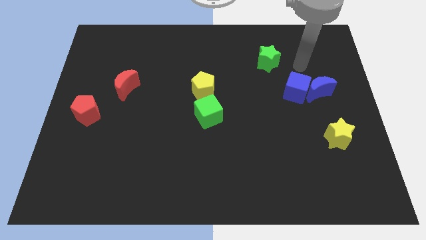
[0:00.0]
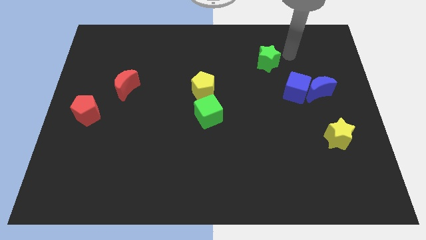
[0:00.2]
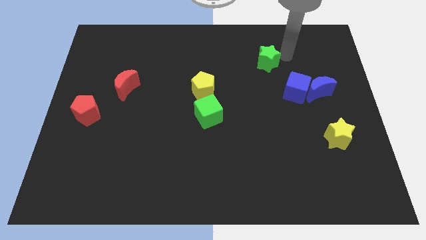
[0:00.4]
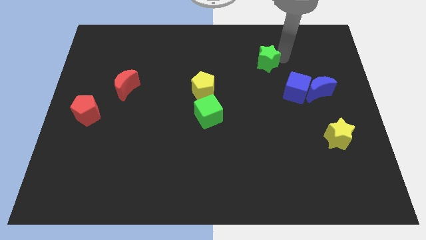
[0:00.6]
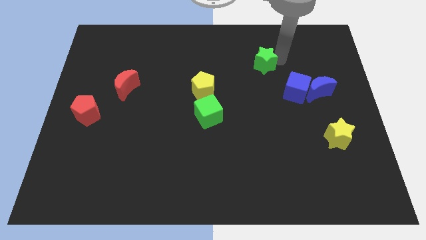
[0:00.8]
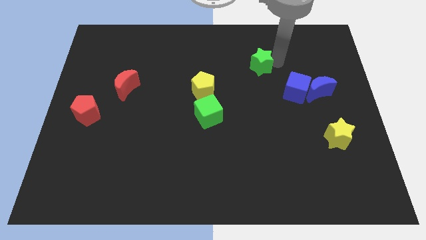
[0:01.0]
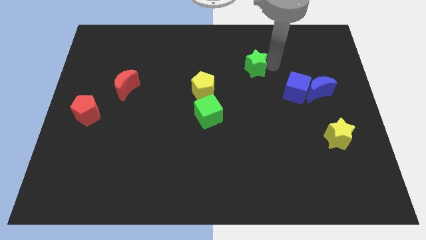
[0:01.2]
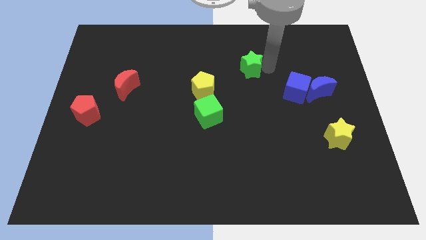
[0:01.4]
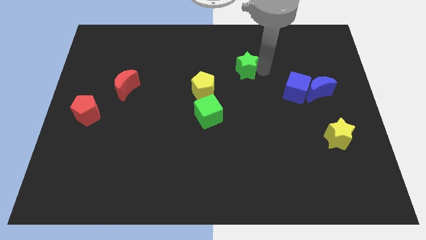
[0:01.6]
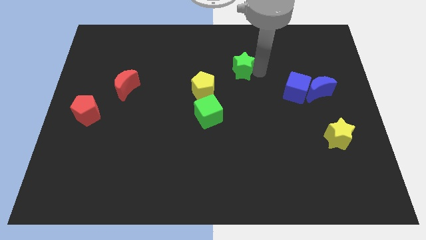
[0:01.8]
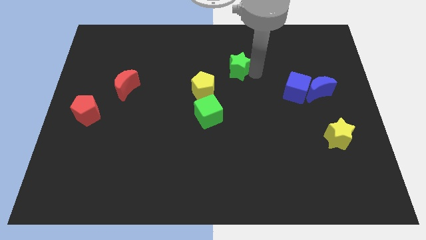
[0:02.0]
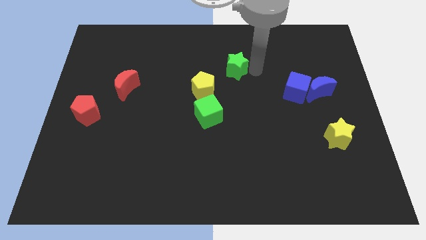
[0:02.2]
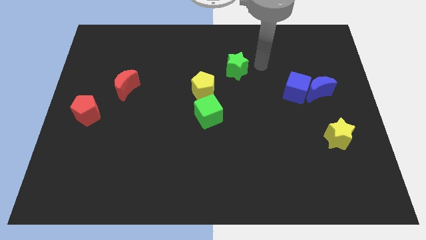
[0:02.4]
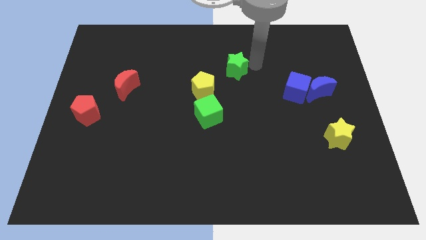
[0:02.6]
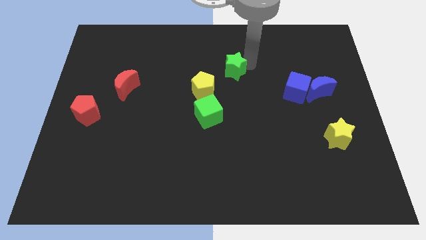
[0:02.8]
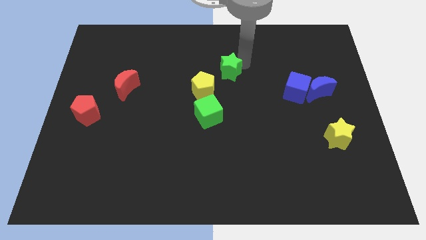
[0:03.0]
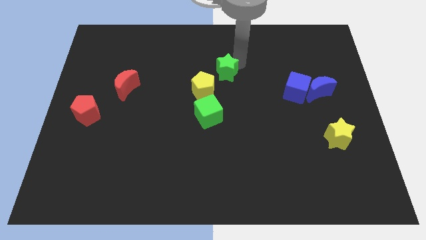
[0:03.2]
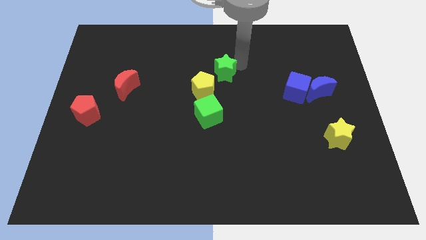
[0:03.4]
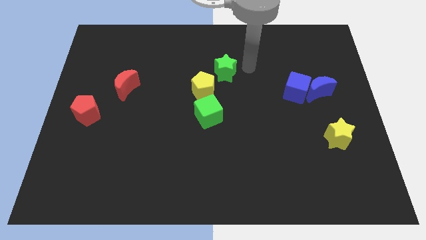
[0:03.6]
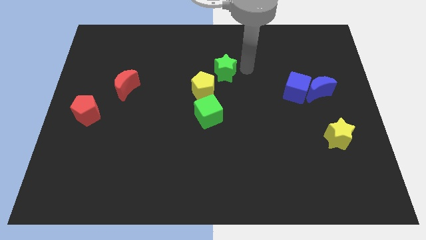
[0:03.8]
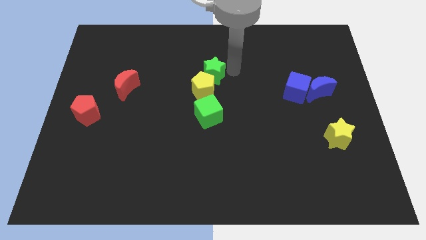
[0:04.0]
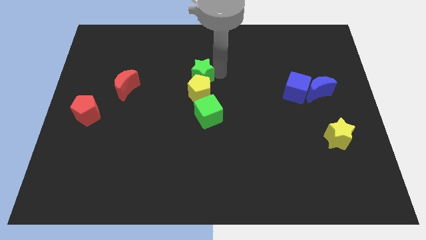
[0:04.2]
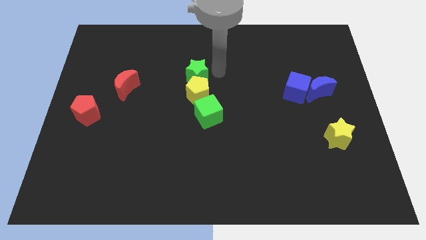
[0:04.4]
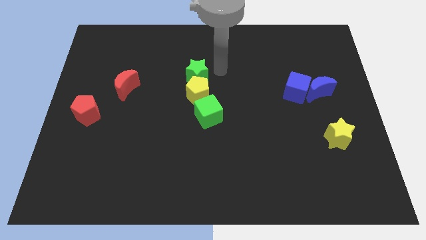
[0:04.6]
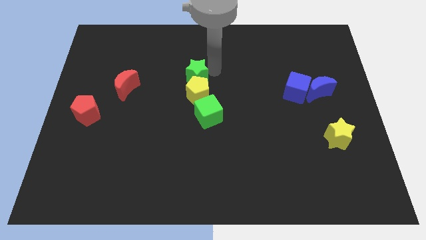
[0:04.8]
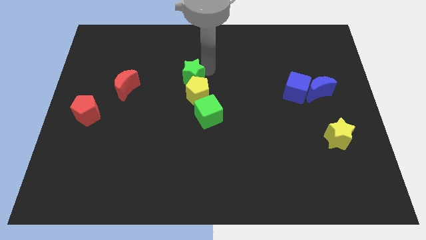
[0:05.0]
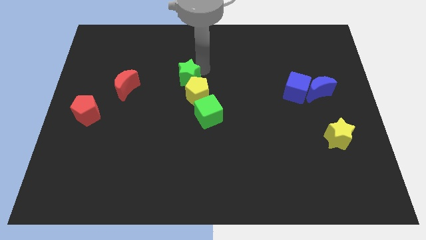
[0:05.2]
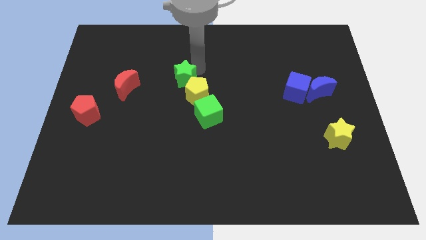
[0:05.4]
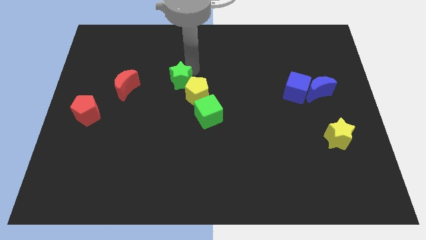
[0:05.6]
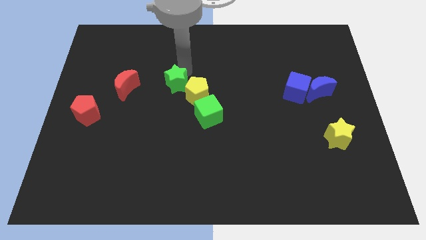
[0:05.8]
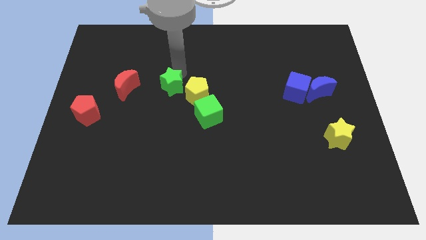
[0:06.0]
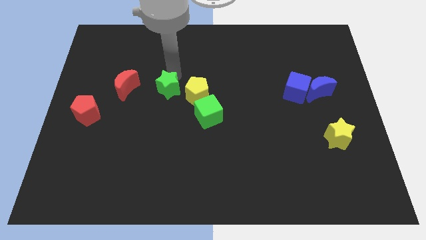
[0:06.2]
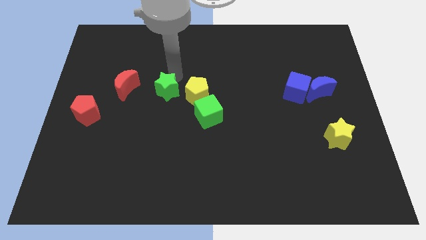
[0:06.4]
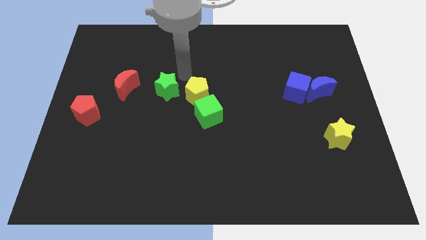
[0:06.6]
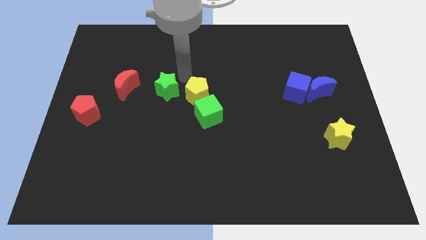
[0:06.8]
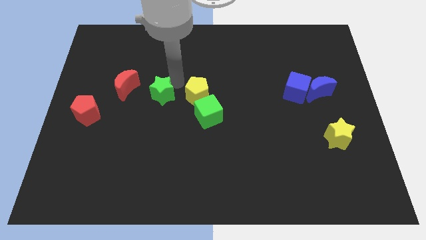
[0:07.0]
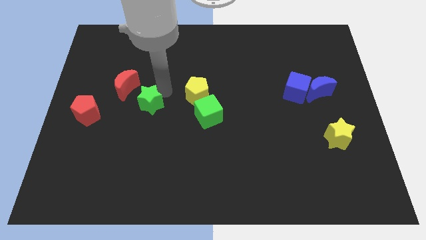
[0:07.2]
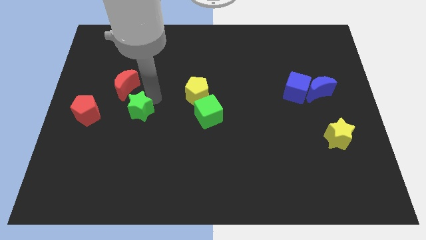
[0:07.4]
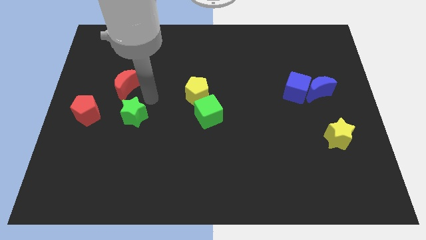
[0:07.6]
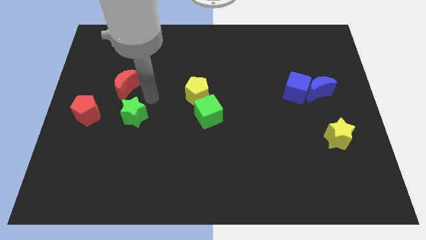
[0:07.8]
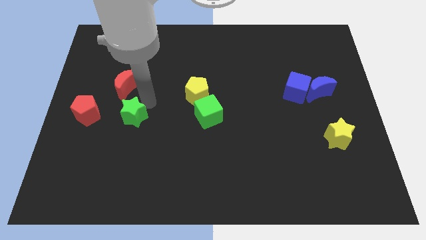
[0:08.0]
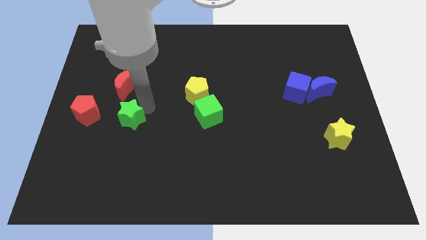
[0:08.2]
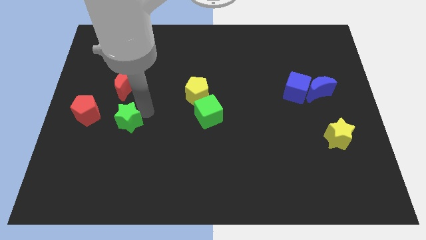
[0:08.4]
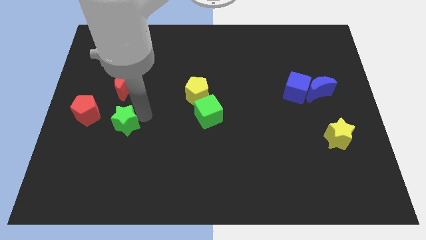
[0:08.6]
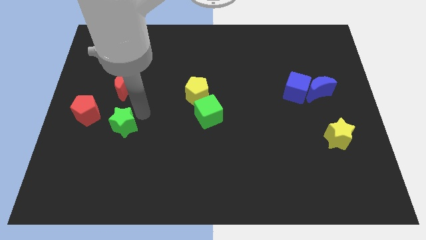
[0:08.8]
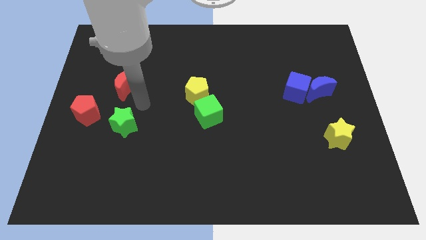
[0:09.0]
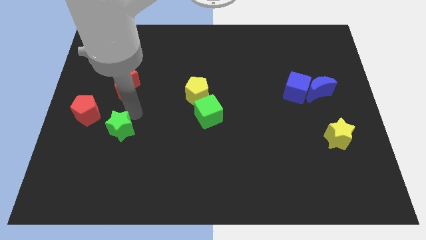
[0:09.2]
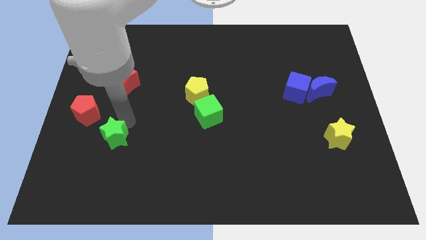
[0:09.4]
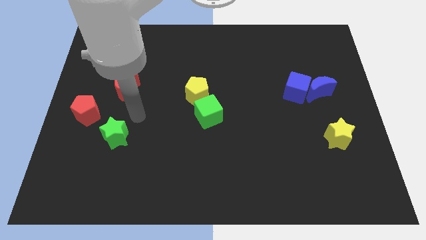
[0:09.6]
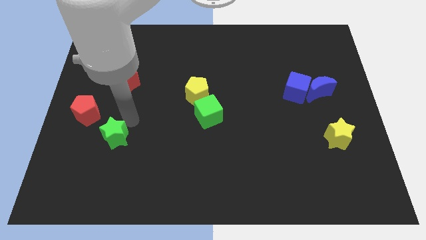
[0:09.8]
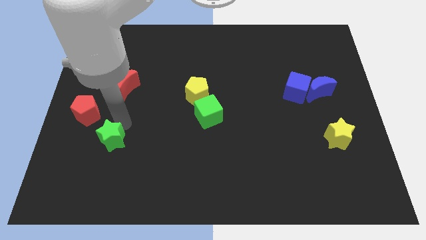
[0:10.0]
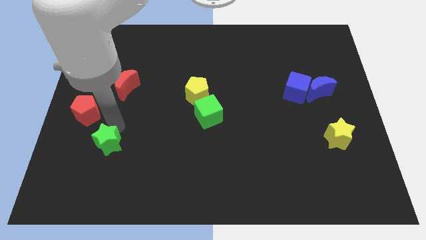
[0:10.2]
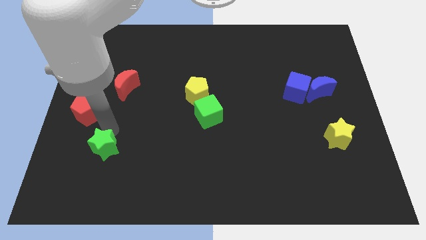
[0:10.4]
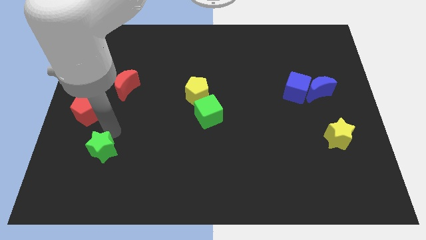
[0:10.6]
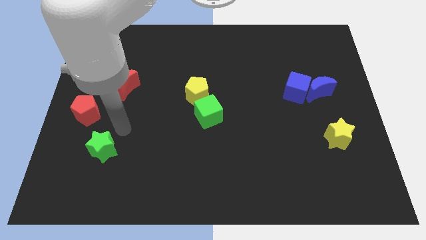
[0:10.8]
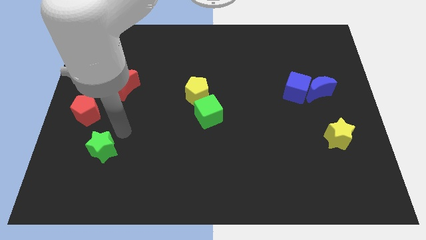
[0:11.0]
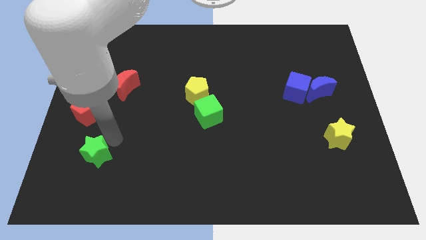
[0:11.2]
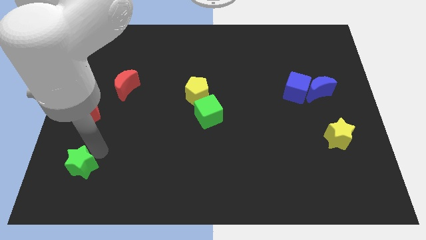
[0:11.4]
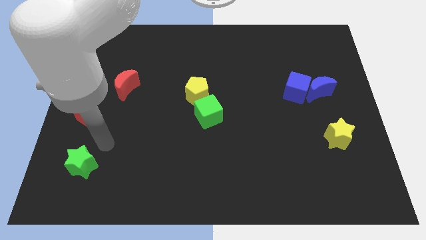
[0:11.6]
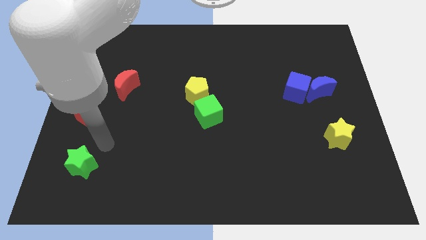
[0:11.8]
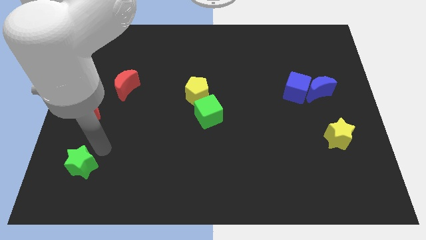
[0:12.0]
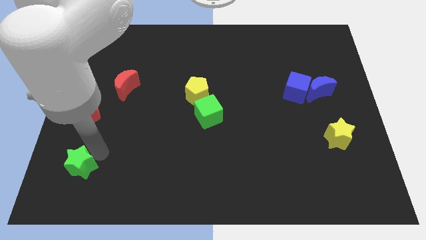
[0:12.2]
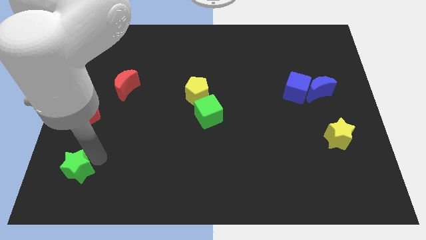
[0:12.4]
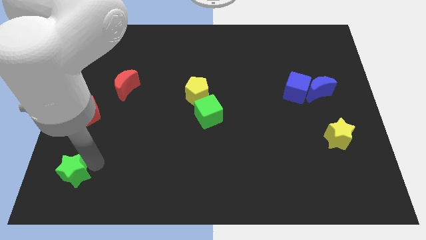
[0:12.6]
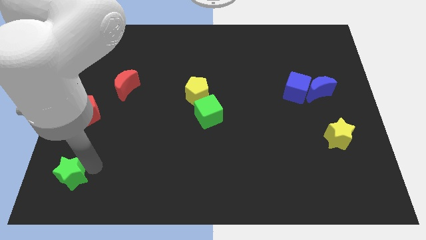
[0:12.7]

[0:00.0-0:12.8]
slide the green star to the bottom left corner

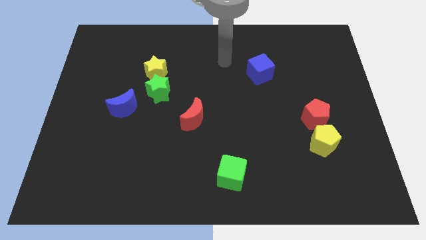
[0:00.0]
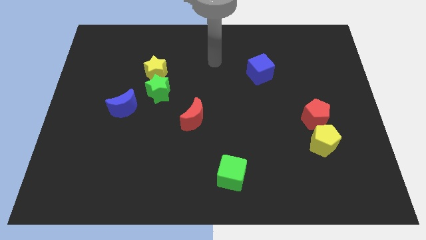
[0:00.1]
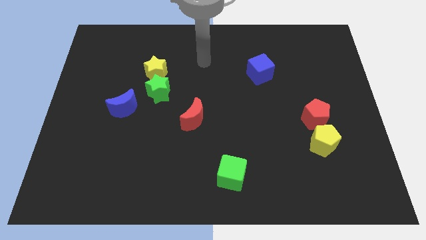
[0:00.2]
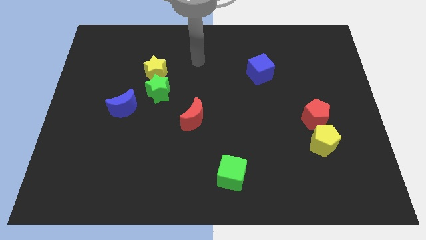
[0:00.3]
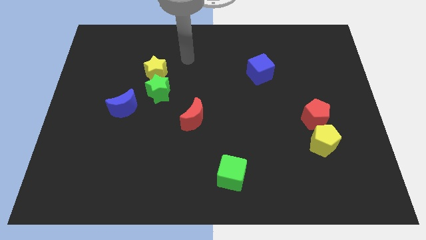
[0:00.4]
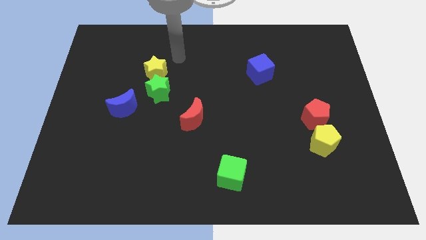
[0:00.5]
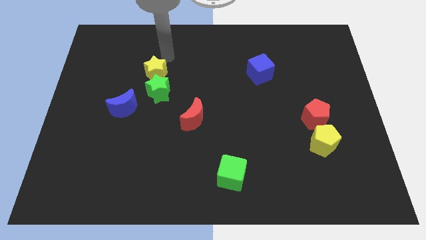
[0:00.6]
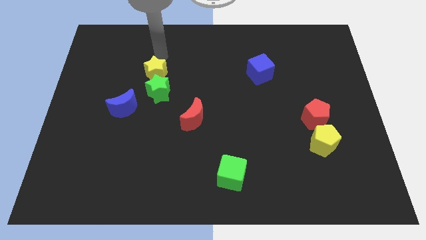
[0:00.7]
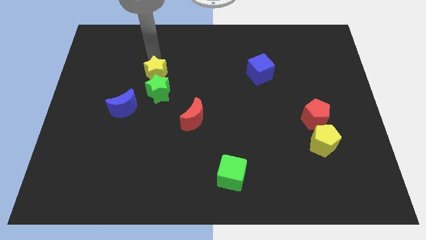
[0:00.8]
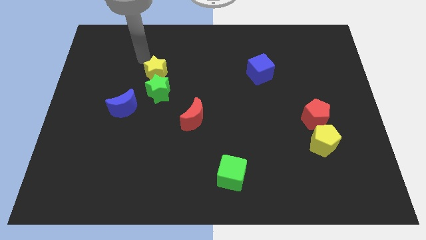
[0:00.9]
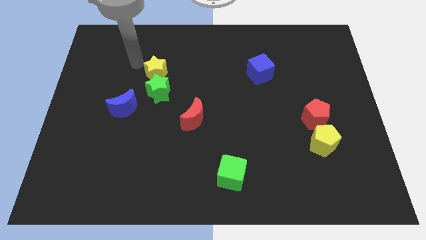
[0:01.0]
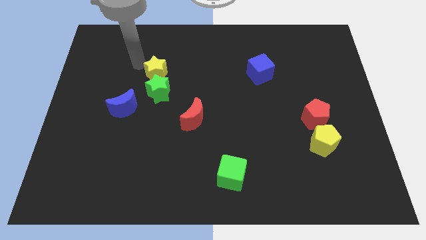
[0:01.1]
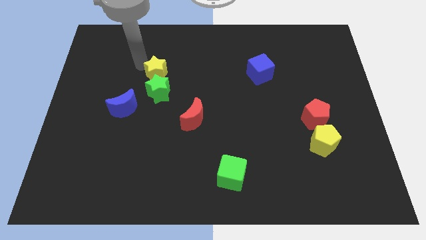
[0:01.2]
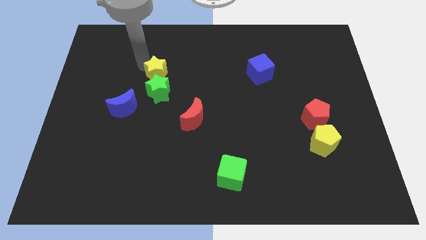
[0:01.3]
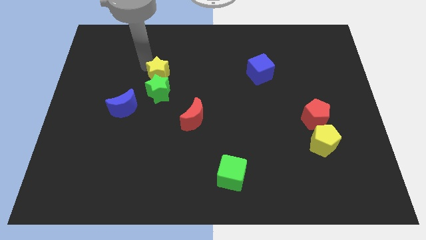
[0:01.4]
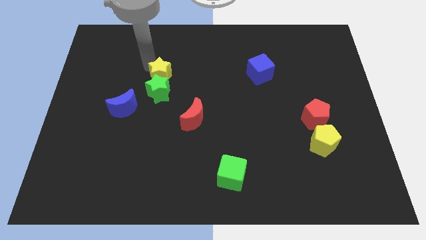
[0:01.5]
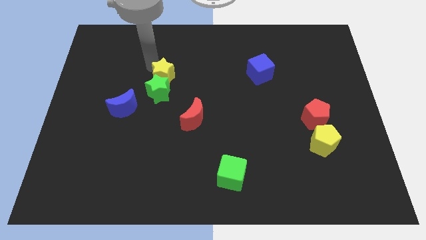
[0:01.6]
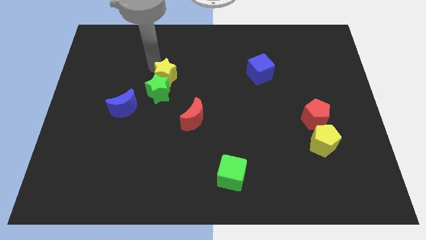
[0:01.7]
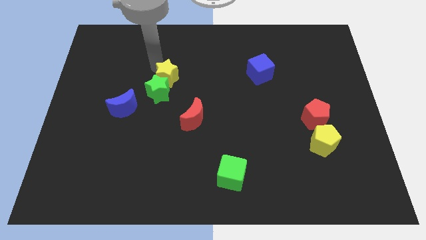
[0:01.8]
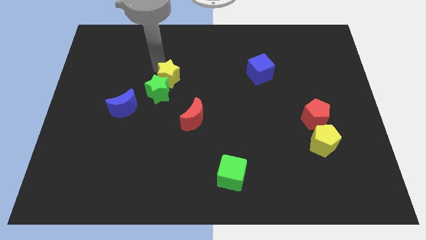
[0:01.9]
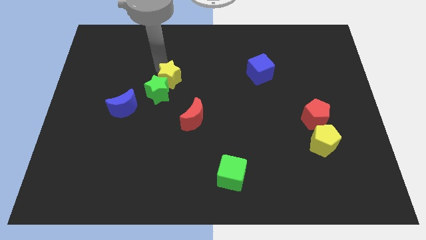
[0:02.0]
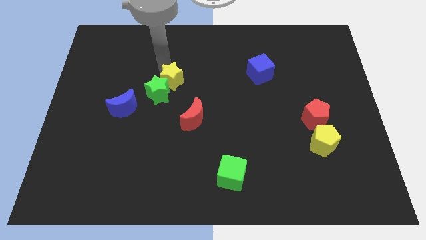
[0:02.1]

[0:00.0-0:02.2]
put the yellow star to the center
